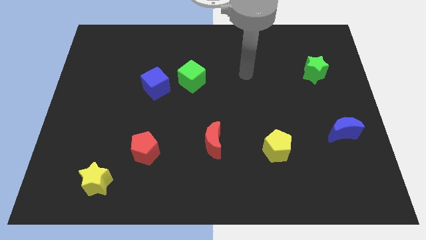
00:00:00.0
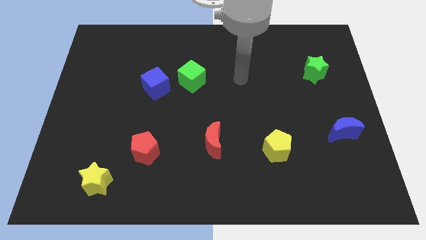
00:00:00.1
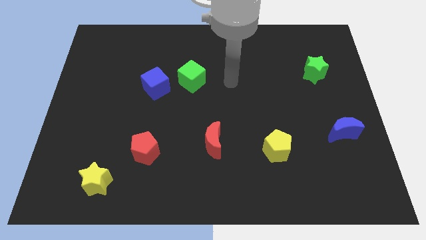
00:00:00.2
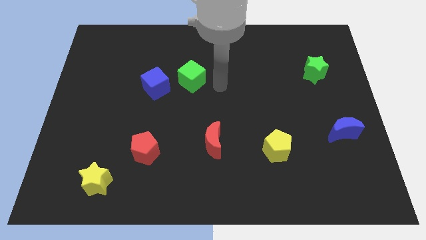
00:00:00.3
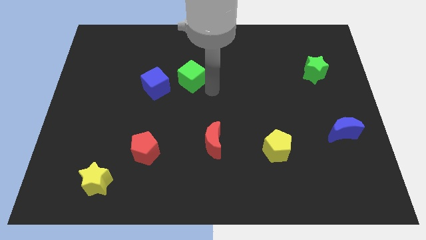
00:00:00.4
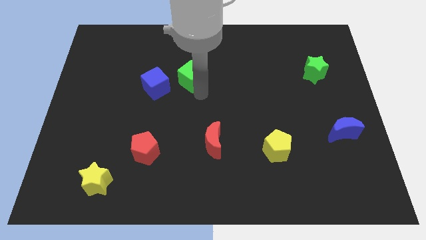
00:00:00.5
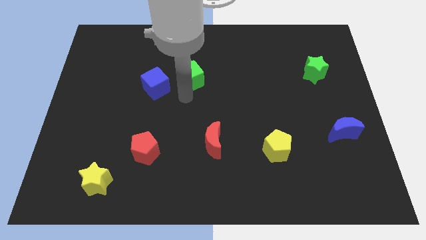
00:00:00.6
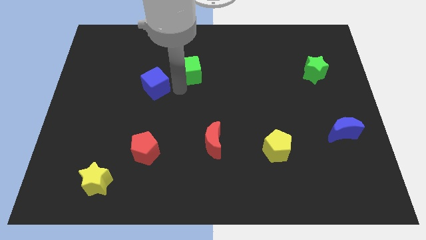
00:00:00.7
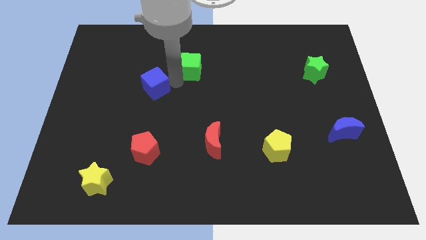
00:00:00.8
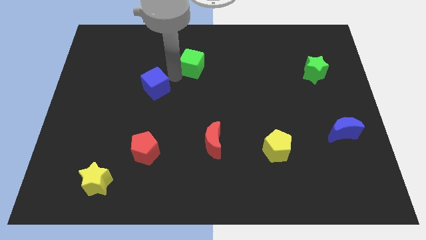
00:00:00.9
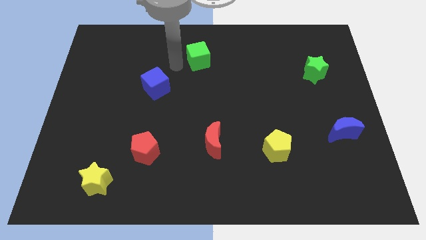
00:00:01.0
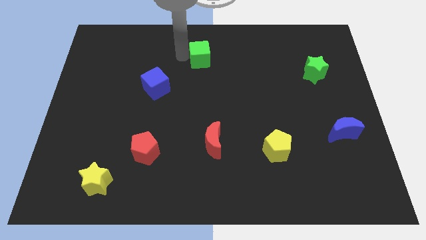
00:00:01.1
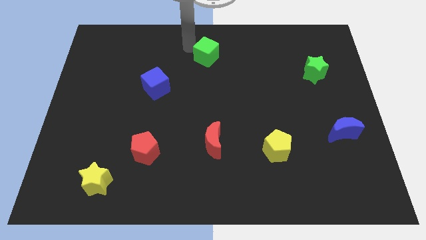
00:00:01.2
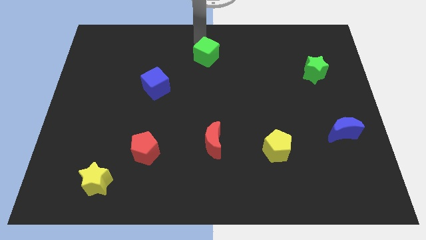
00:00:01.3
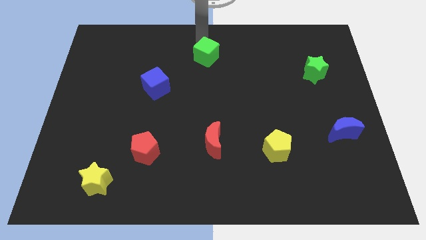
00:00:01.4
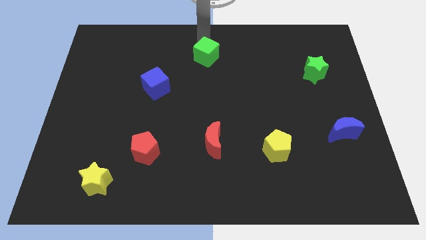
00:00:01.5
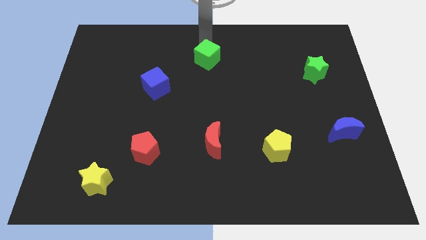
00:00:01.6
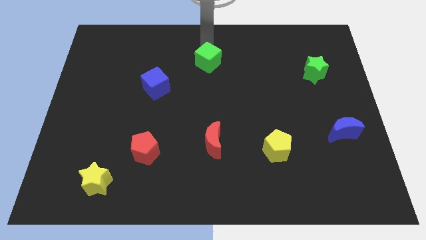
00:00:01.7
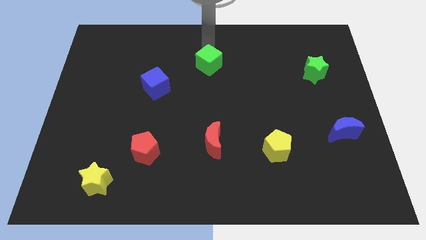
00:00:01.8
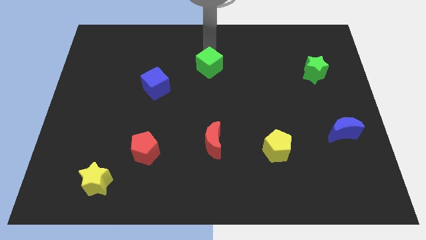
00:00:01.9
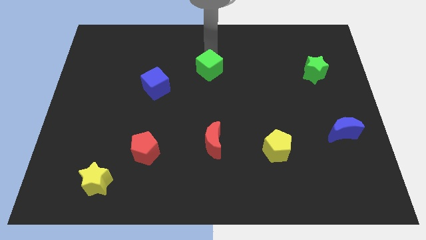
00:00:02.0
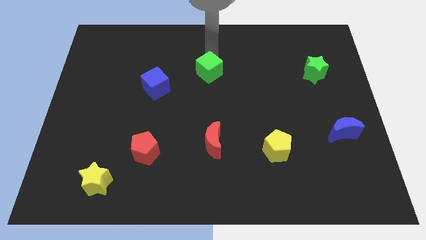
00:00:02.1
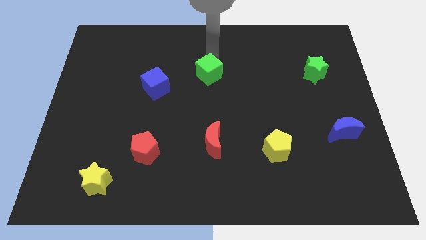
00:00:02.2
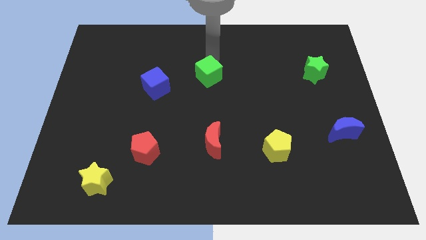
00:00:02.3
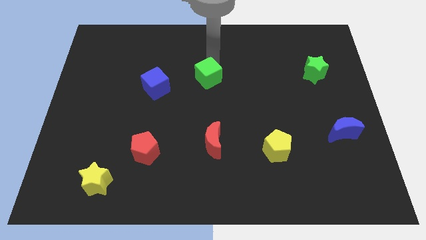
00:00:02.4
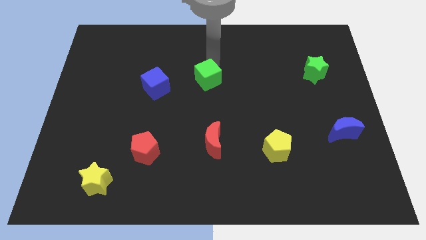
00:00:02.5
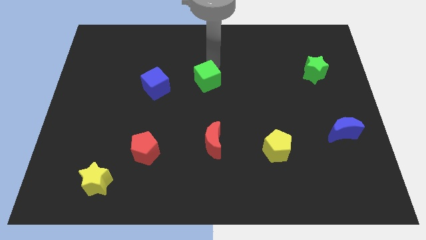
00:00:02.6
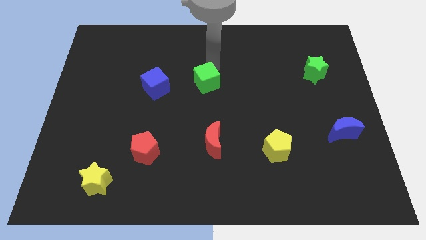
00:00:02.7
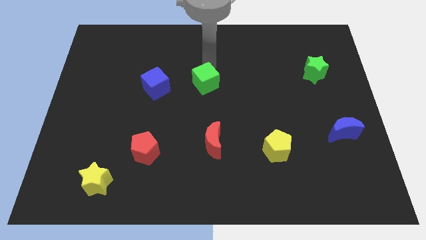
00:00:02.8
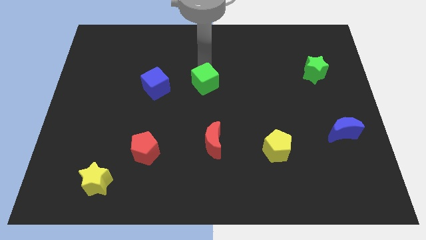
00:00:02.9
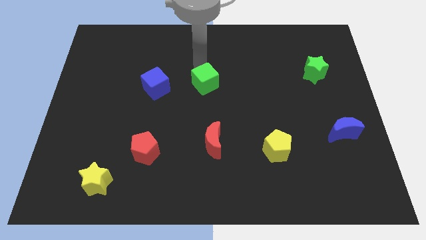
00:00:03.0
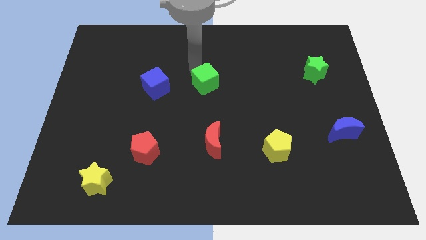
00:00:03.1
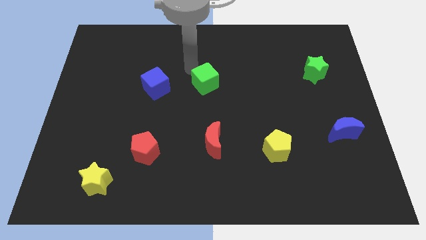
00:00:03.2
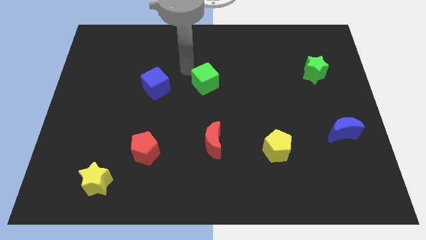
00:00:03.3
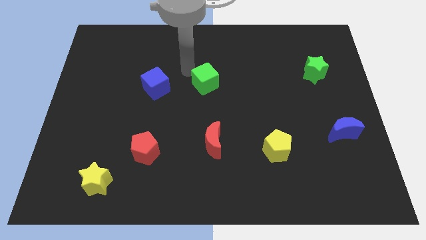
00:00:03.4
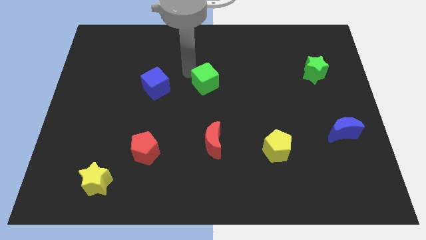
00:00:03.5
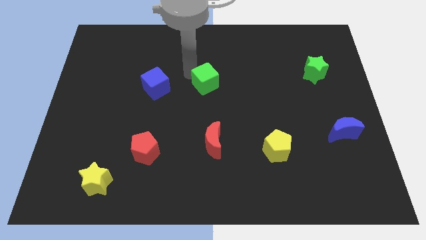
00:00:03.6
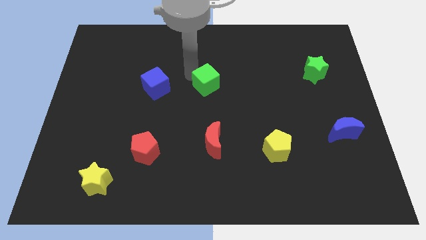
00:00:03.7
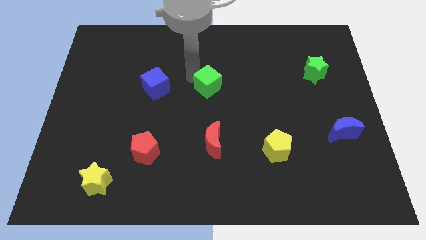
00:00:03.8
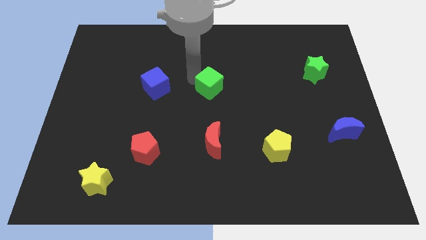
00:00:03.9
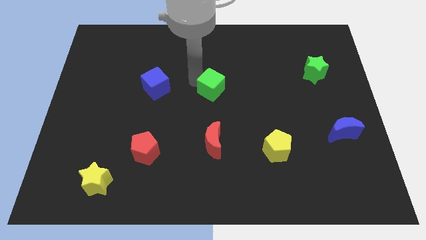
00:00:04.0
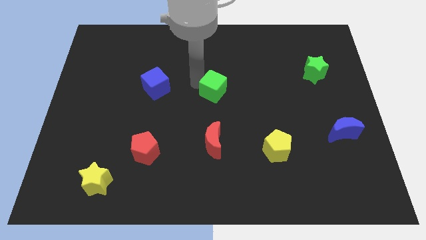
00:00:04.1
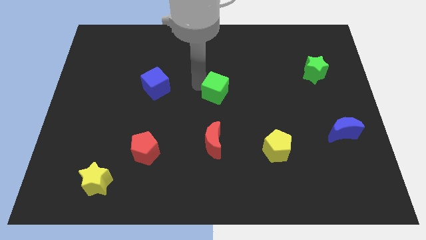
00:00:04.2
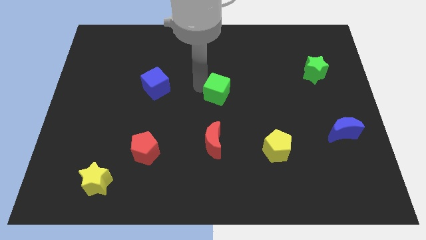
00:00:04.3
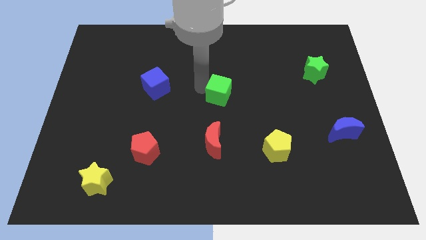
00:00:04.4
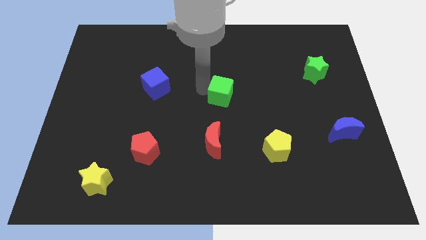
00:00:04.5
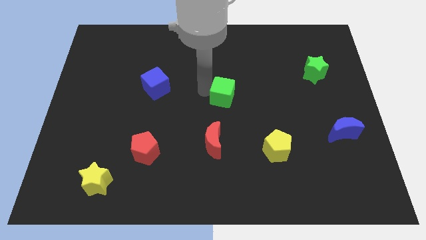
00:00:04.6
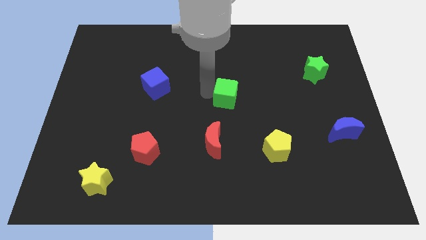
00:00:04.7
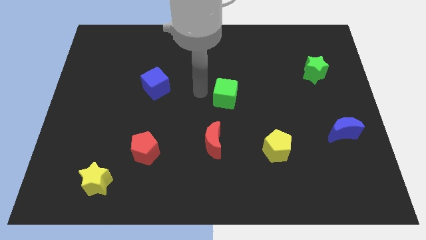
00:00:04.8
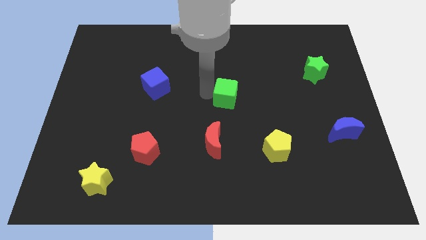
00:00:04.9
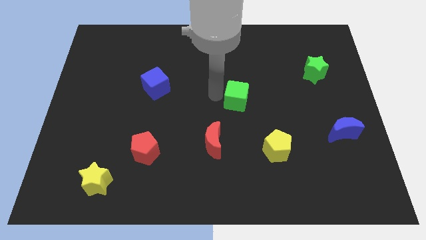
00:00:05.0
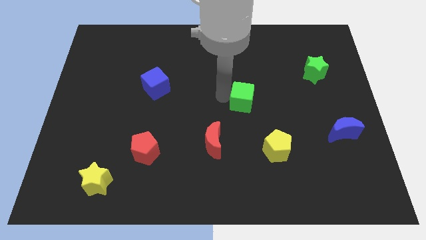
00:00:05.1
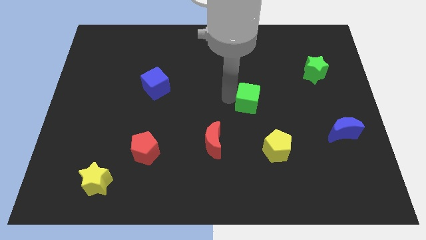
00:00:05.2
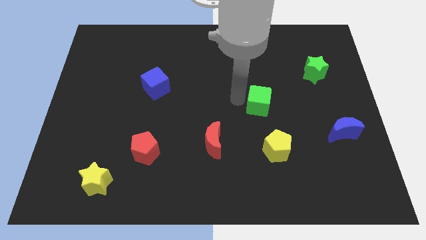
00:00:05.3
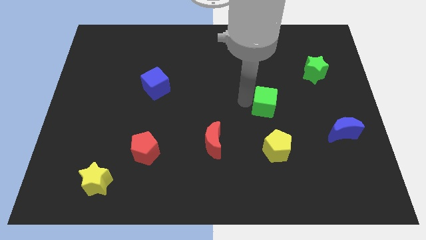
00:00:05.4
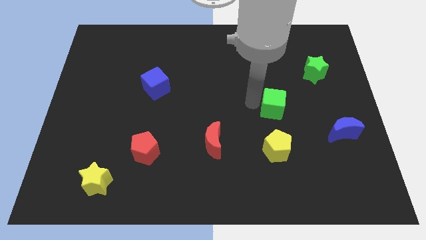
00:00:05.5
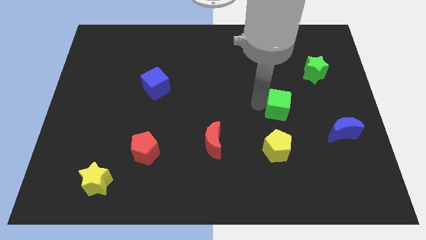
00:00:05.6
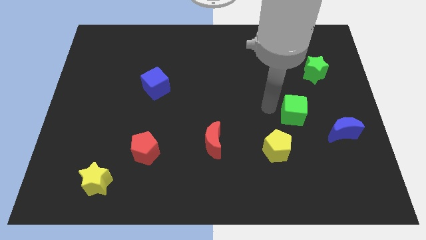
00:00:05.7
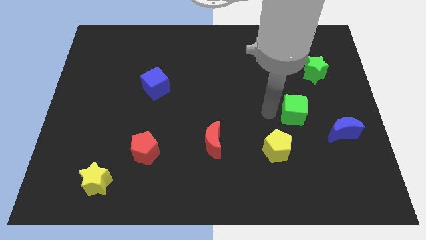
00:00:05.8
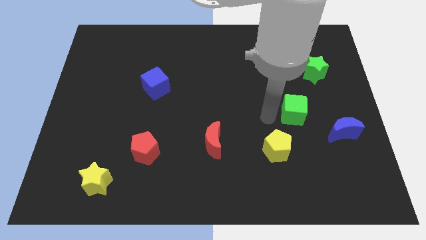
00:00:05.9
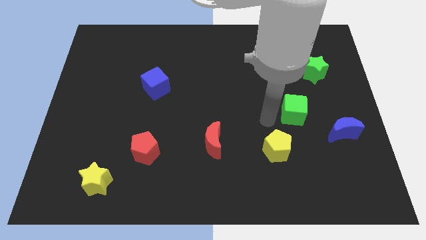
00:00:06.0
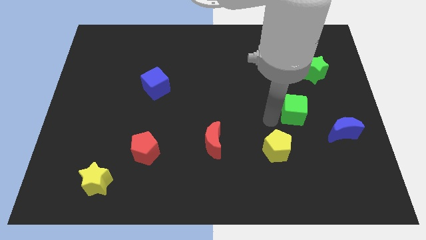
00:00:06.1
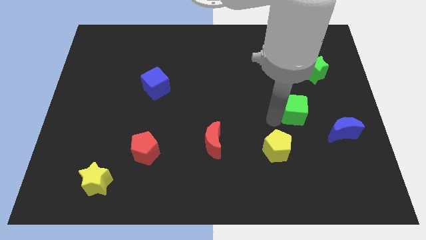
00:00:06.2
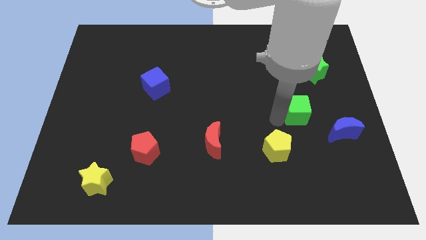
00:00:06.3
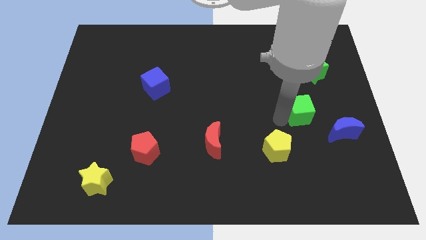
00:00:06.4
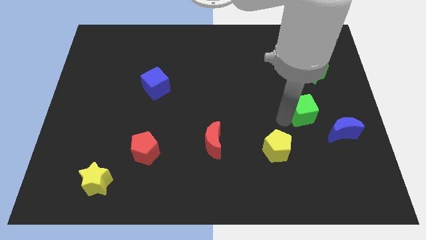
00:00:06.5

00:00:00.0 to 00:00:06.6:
put the green cube to the bottom side of the green star

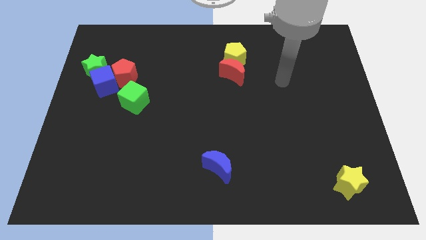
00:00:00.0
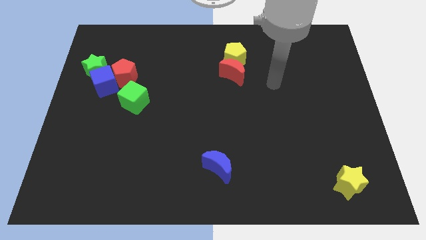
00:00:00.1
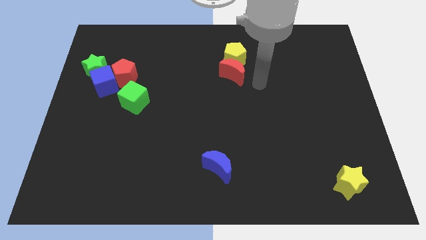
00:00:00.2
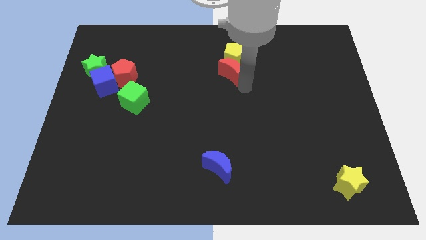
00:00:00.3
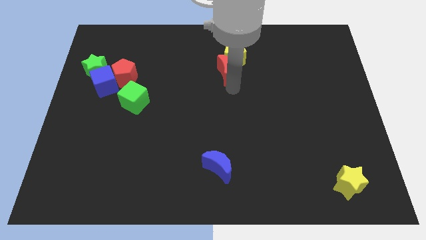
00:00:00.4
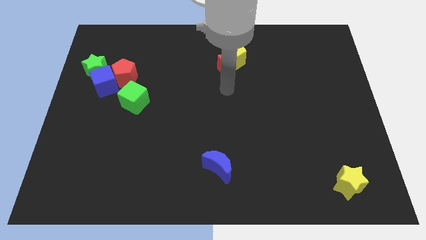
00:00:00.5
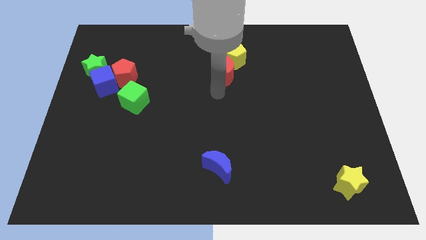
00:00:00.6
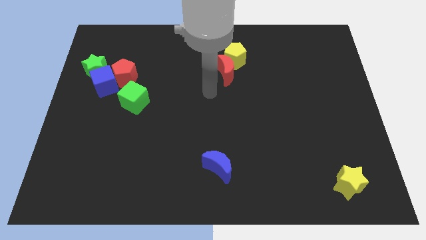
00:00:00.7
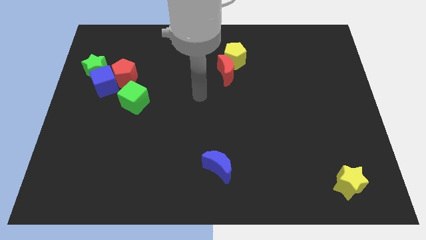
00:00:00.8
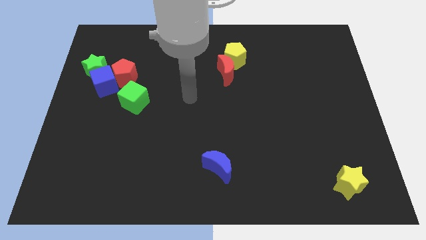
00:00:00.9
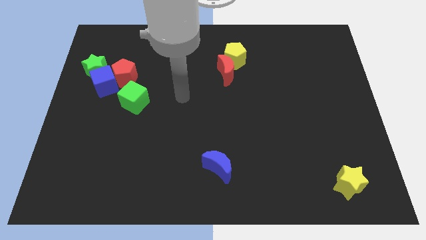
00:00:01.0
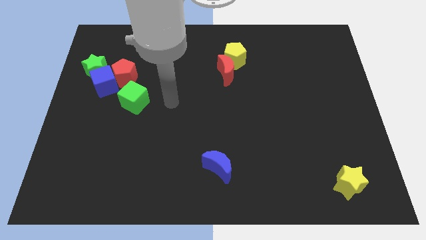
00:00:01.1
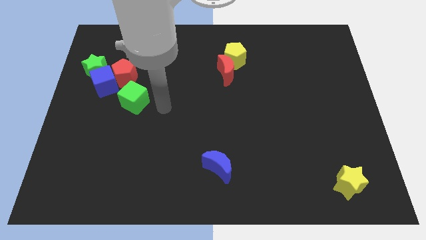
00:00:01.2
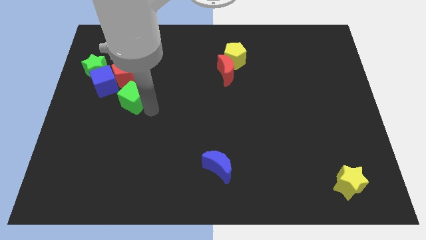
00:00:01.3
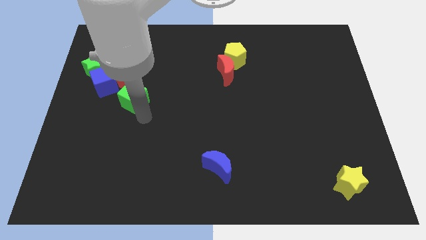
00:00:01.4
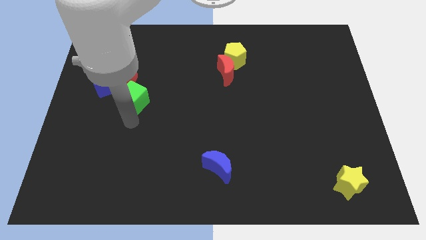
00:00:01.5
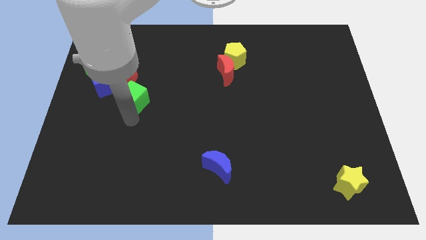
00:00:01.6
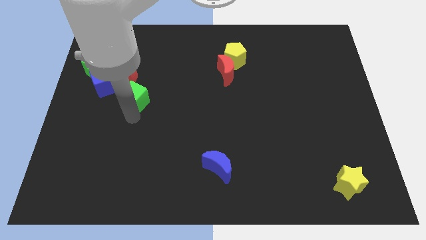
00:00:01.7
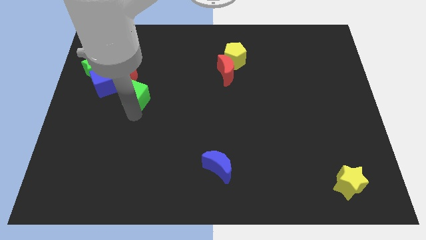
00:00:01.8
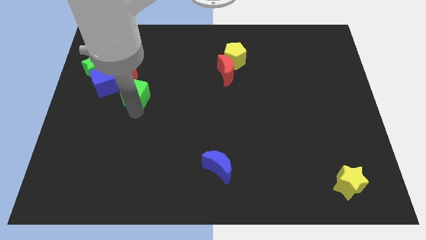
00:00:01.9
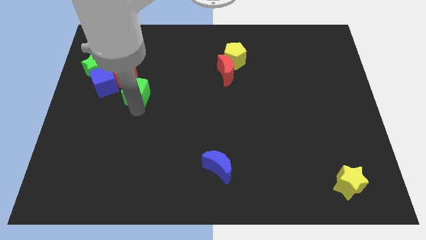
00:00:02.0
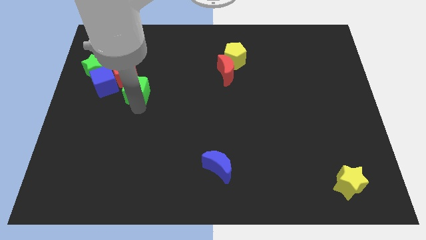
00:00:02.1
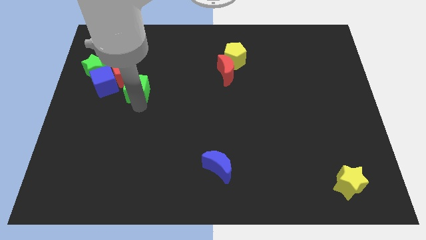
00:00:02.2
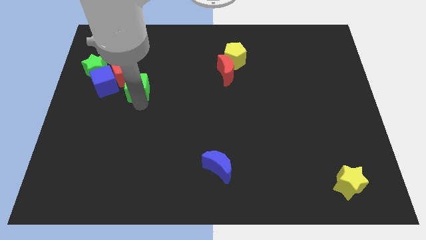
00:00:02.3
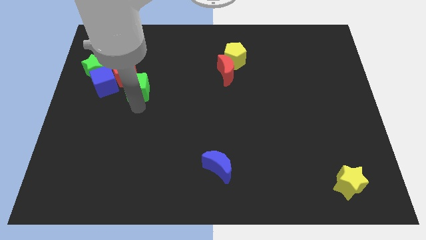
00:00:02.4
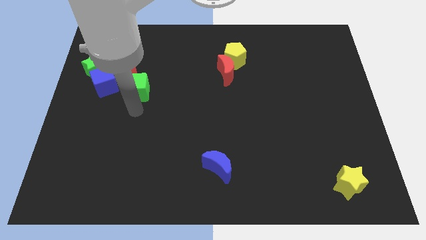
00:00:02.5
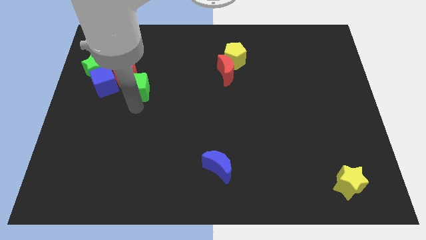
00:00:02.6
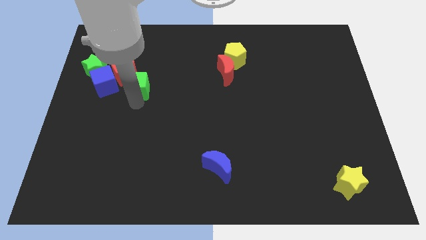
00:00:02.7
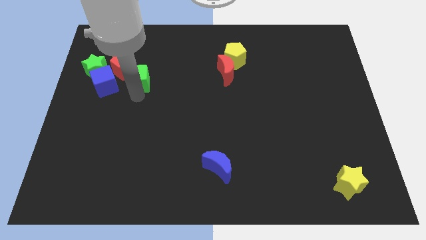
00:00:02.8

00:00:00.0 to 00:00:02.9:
slide the green cube to the top right side of the blue cube
